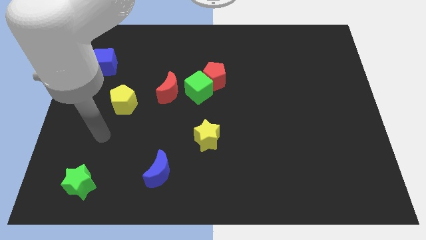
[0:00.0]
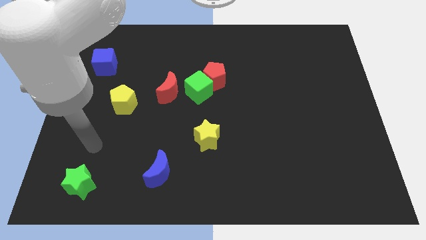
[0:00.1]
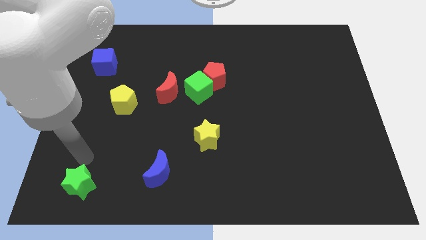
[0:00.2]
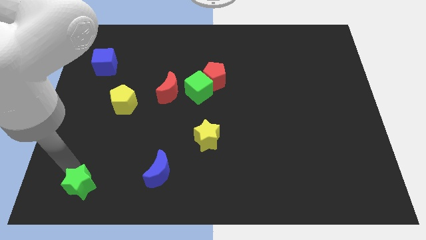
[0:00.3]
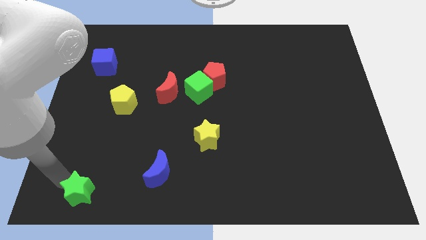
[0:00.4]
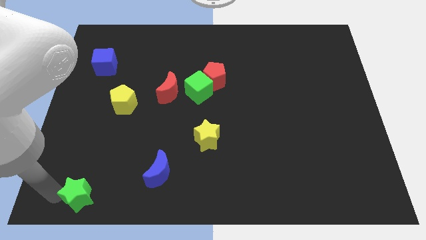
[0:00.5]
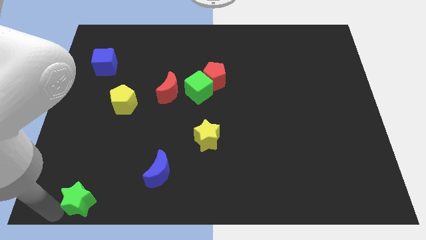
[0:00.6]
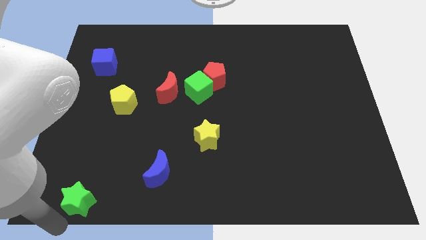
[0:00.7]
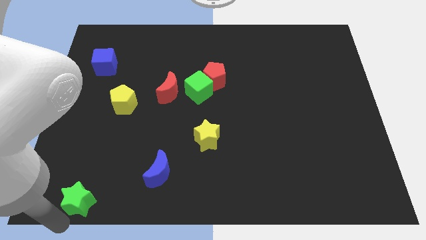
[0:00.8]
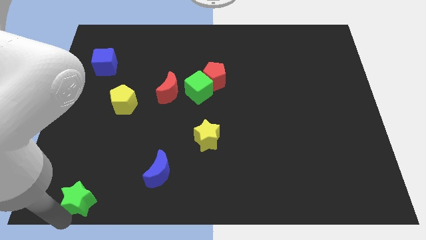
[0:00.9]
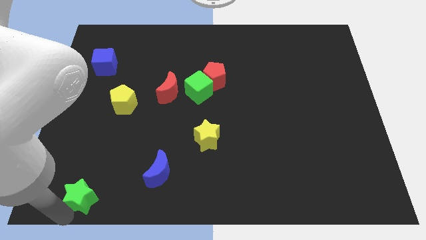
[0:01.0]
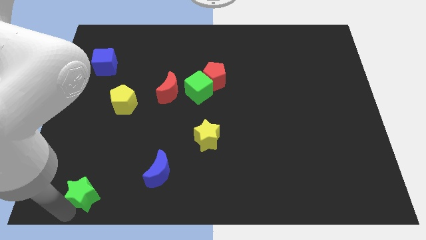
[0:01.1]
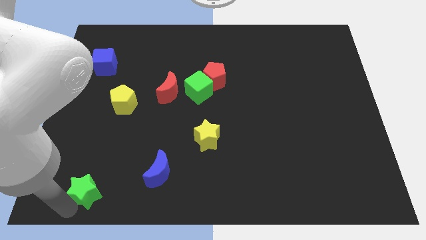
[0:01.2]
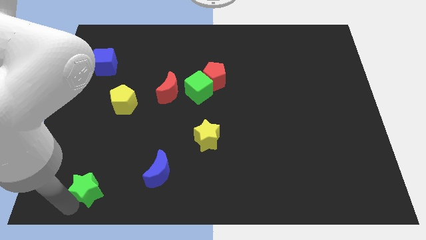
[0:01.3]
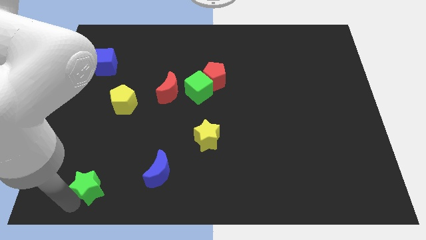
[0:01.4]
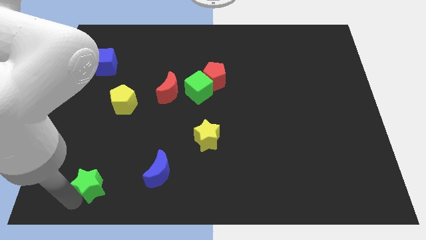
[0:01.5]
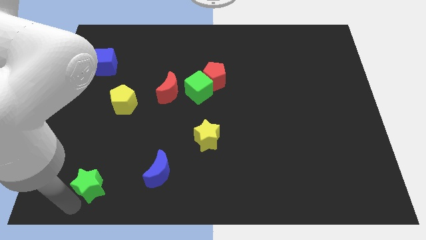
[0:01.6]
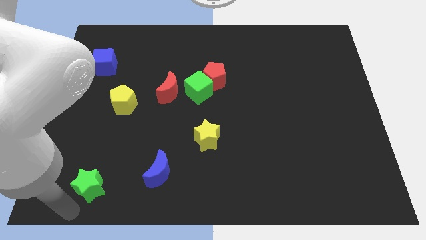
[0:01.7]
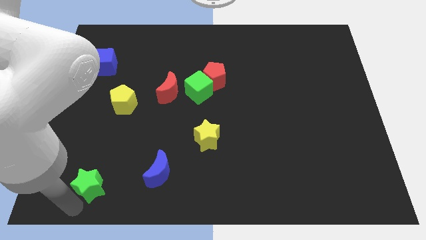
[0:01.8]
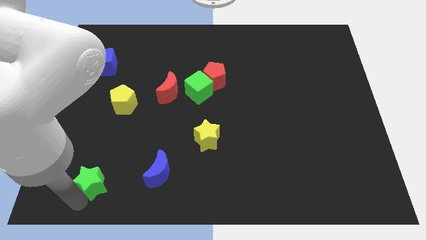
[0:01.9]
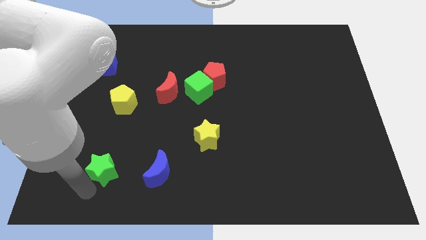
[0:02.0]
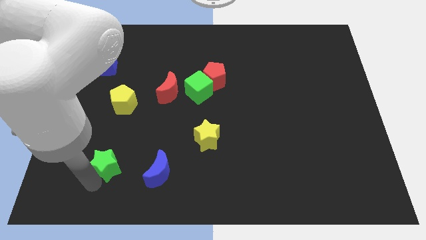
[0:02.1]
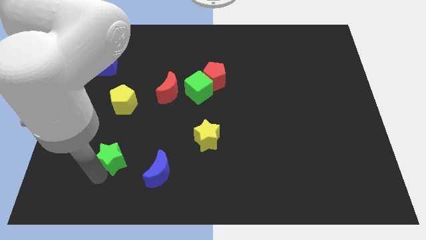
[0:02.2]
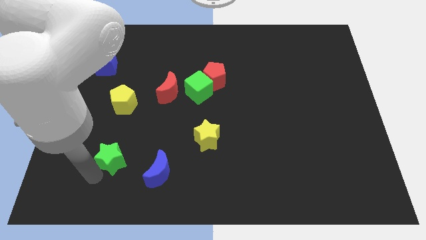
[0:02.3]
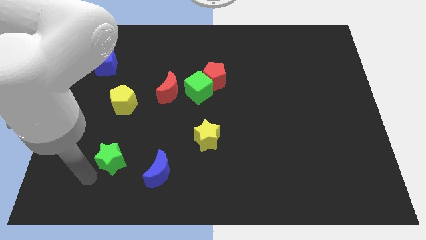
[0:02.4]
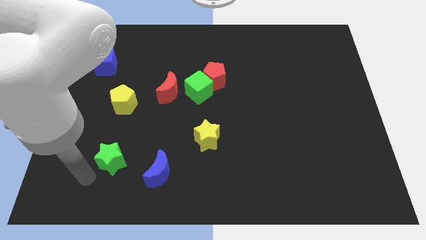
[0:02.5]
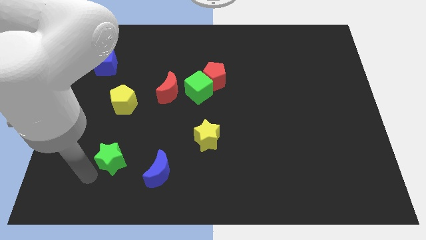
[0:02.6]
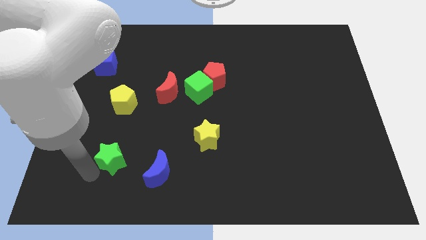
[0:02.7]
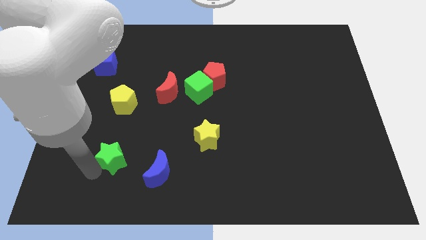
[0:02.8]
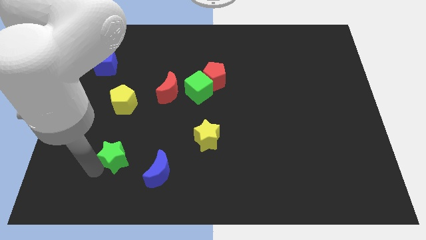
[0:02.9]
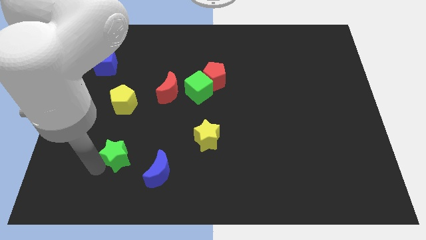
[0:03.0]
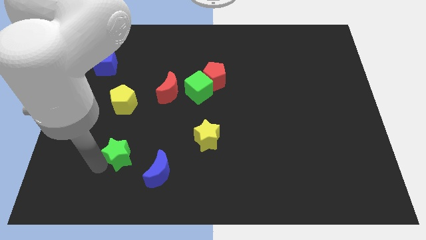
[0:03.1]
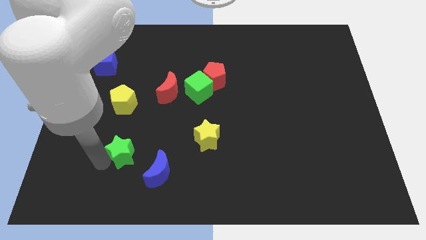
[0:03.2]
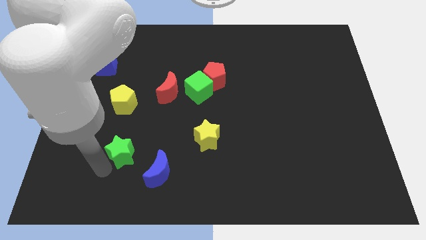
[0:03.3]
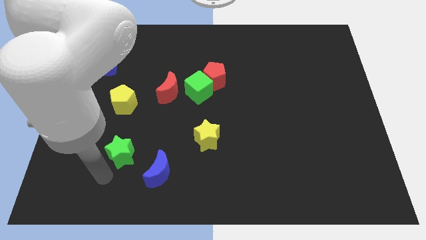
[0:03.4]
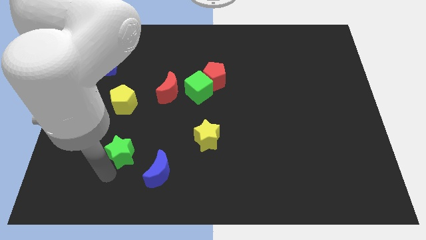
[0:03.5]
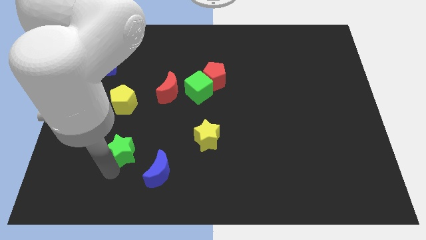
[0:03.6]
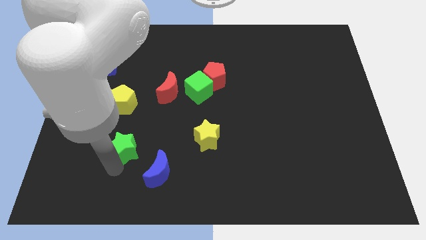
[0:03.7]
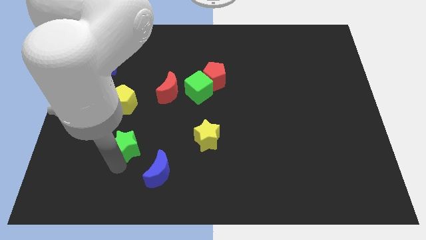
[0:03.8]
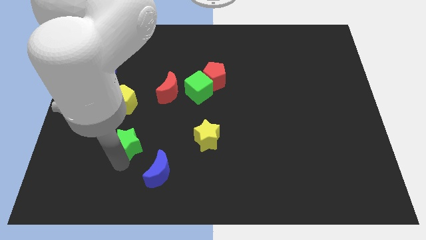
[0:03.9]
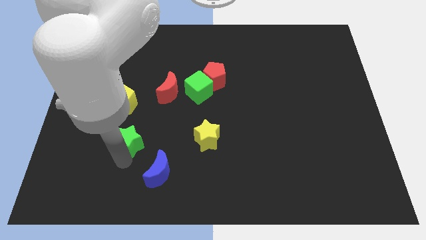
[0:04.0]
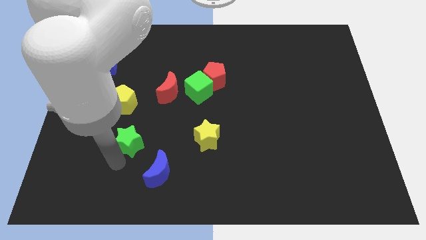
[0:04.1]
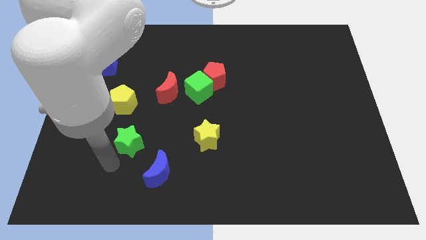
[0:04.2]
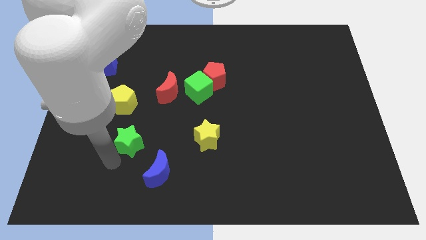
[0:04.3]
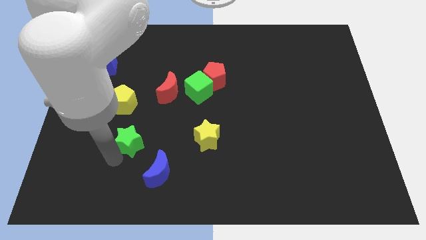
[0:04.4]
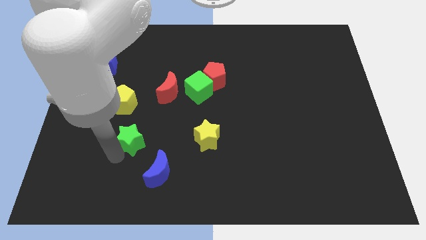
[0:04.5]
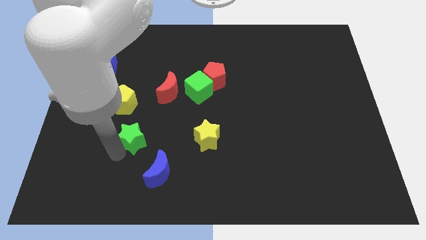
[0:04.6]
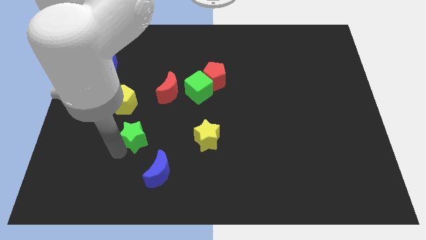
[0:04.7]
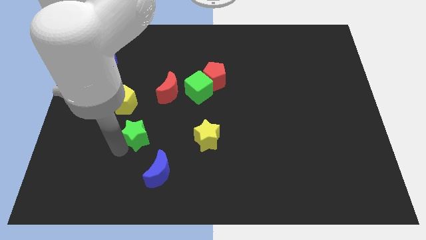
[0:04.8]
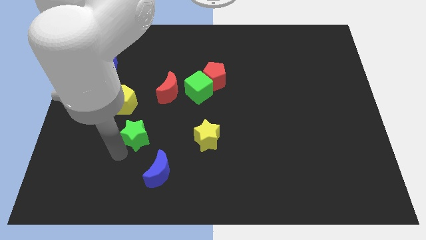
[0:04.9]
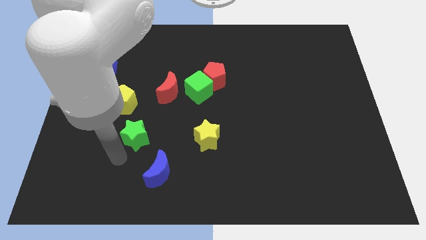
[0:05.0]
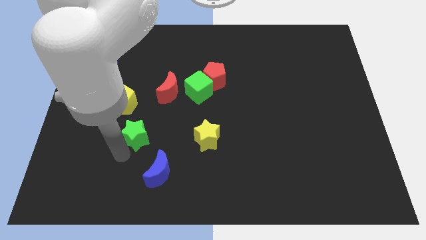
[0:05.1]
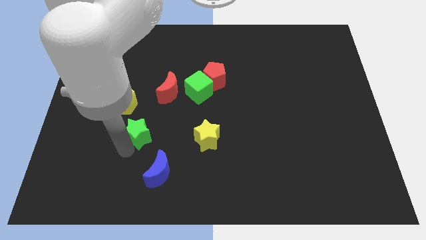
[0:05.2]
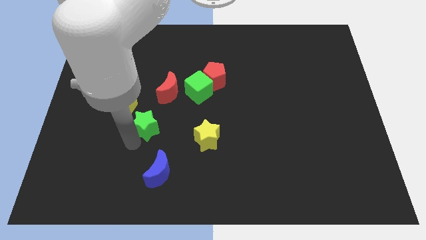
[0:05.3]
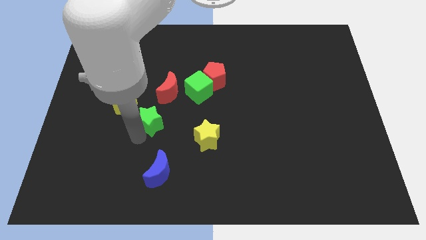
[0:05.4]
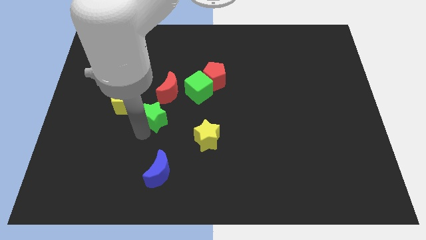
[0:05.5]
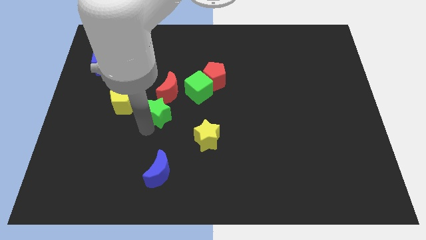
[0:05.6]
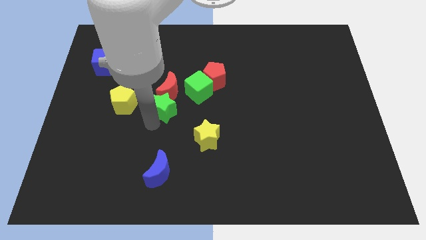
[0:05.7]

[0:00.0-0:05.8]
slide the green star towards the red moon

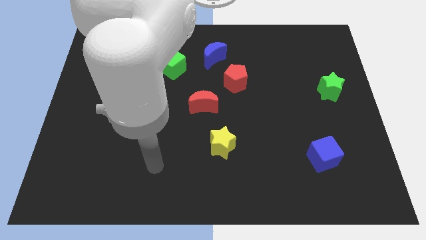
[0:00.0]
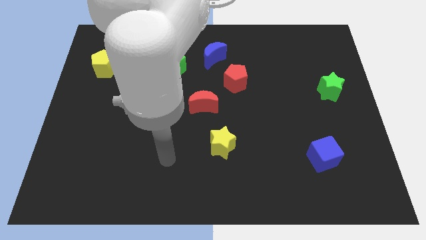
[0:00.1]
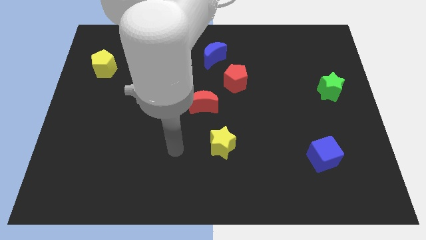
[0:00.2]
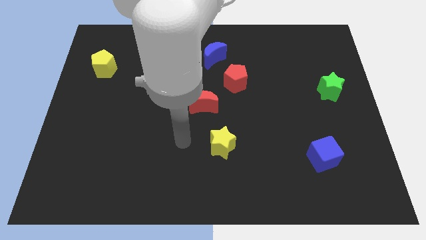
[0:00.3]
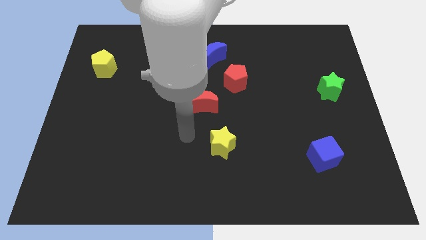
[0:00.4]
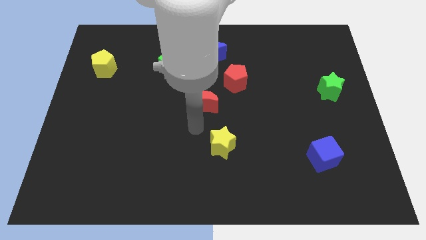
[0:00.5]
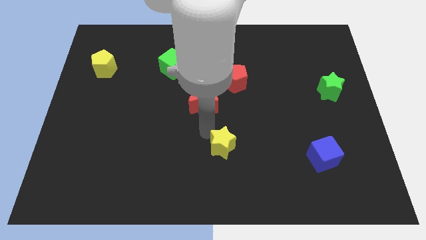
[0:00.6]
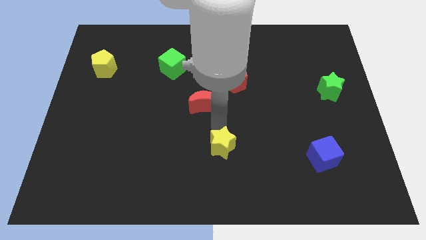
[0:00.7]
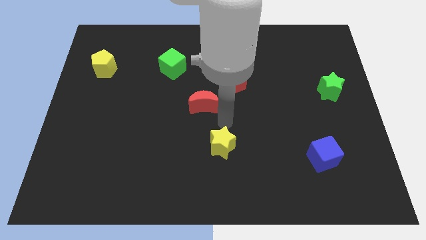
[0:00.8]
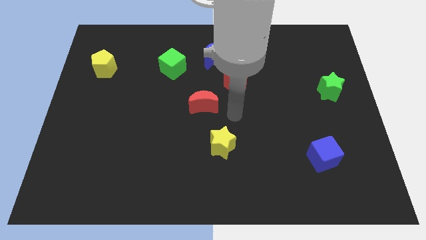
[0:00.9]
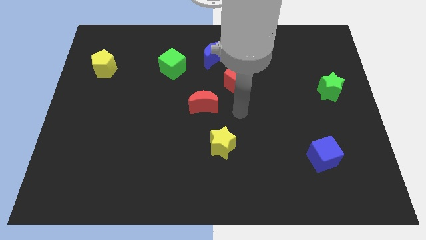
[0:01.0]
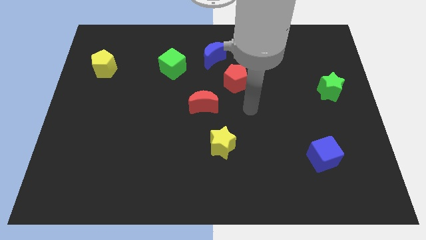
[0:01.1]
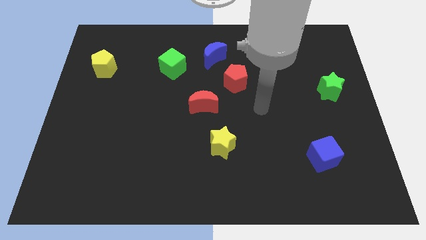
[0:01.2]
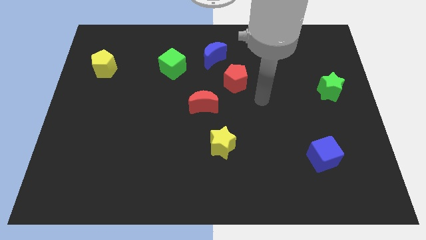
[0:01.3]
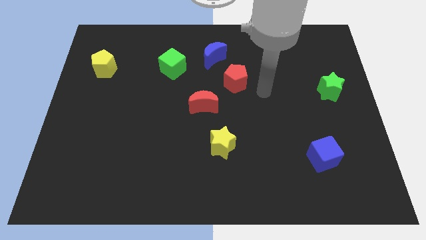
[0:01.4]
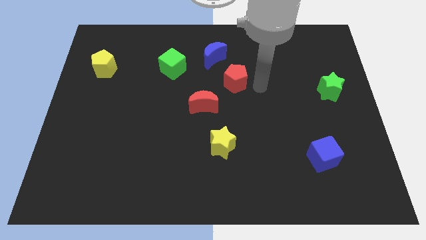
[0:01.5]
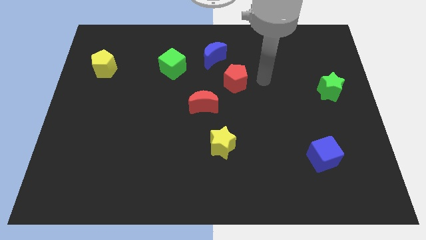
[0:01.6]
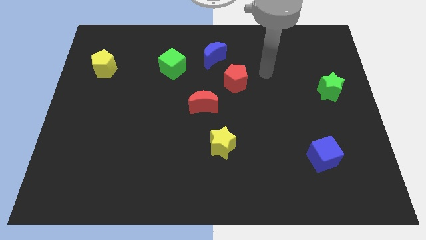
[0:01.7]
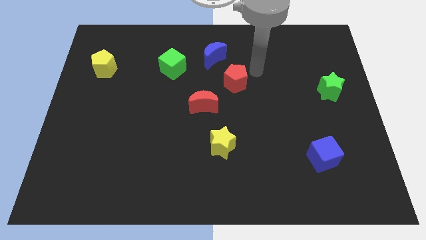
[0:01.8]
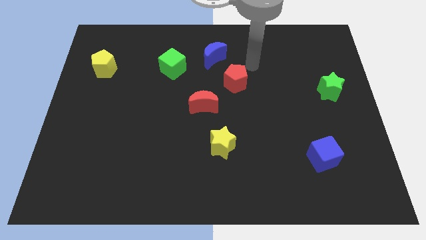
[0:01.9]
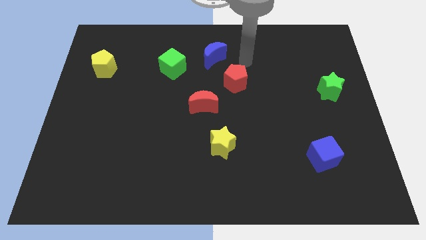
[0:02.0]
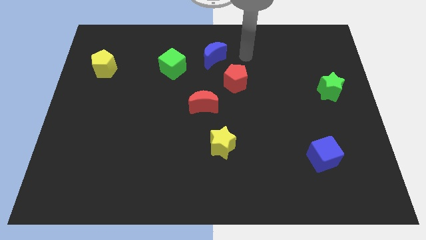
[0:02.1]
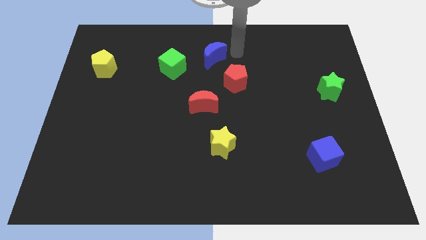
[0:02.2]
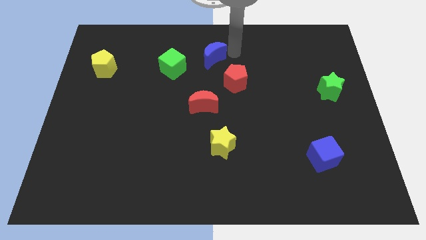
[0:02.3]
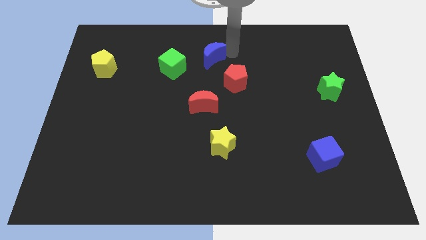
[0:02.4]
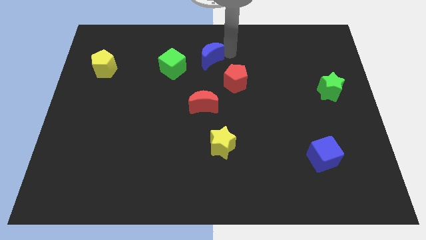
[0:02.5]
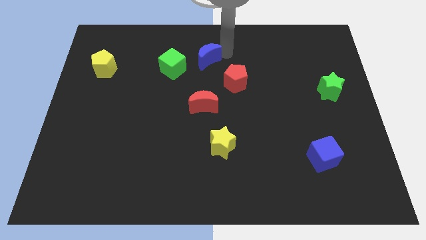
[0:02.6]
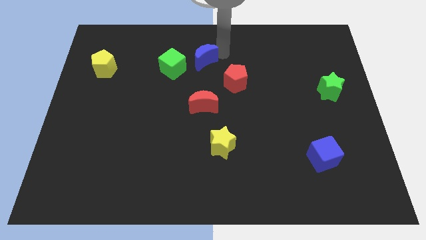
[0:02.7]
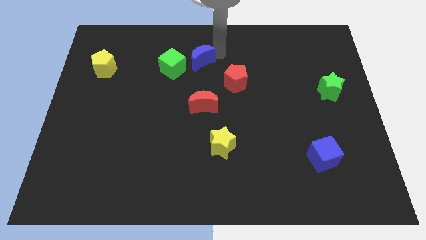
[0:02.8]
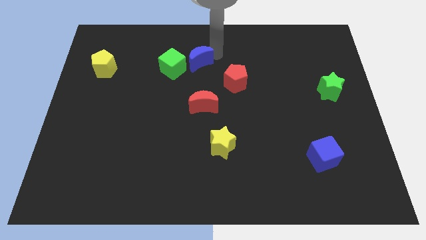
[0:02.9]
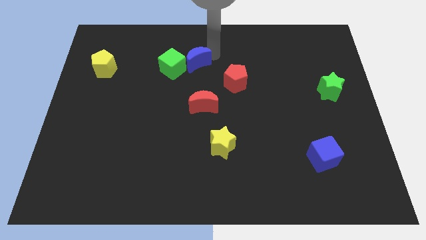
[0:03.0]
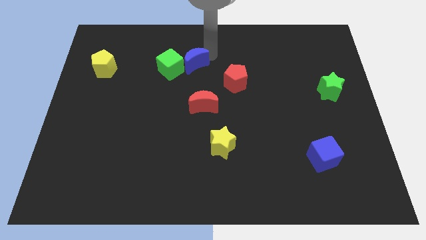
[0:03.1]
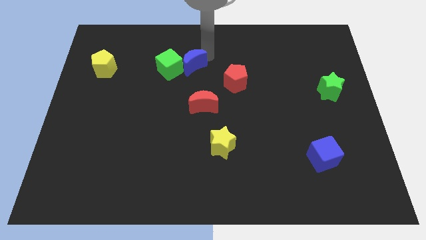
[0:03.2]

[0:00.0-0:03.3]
move the blue moon to the green cube
